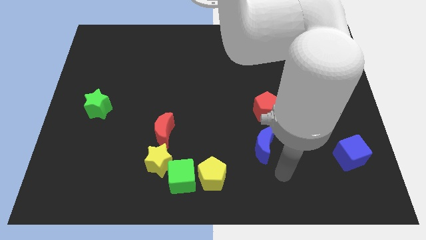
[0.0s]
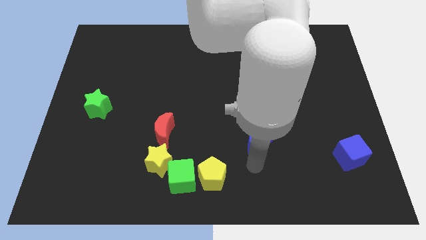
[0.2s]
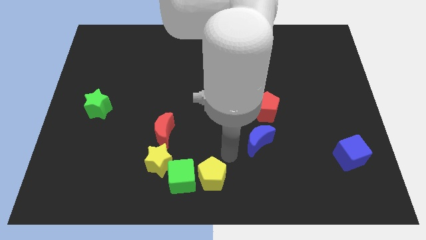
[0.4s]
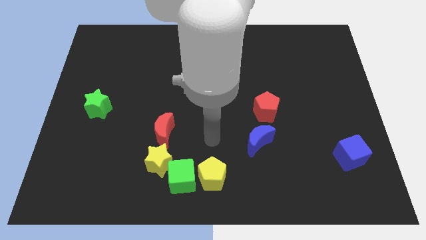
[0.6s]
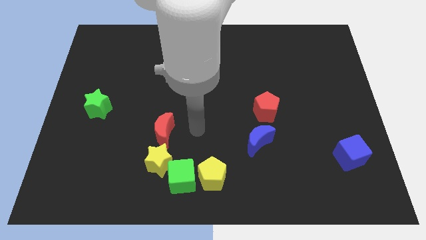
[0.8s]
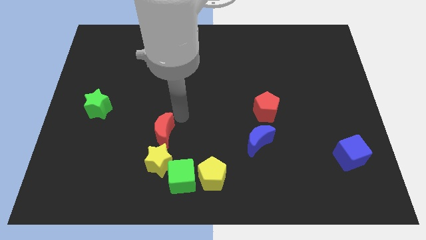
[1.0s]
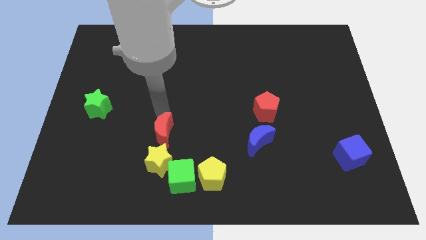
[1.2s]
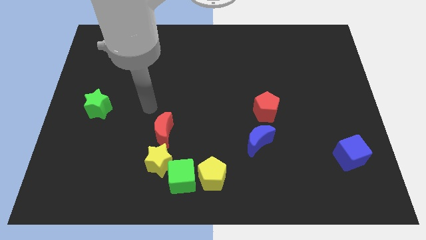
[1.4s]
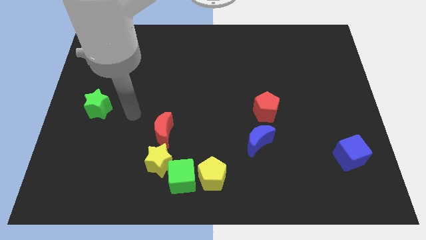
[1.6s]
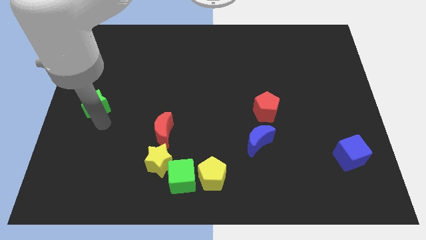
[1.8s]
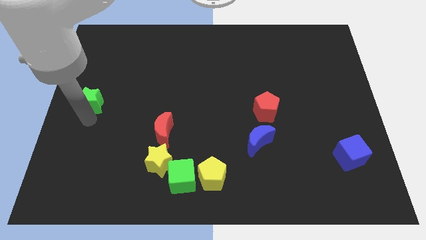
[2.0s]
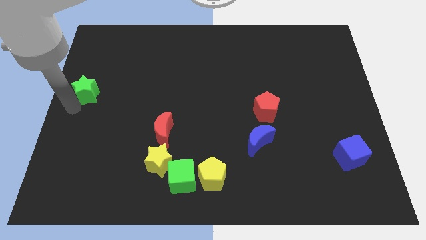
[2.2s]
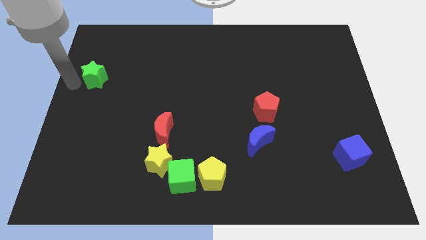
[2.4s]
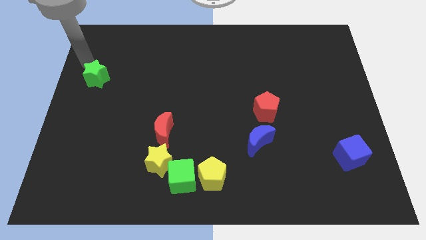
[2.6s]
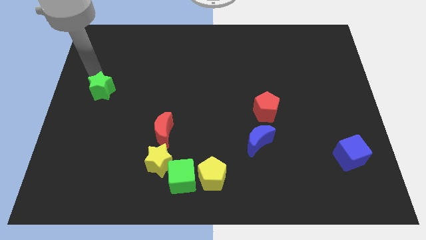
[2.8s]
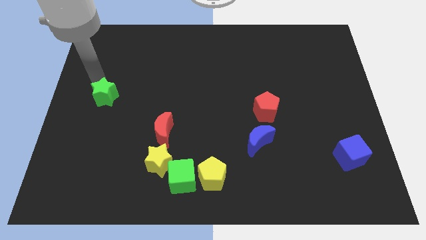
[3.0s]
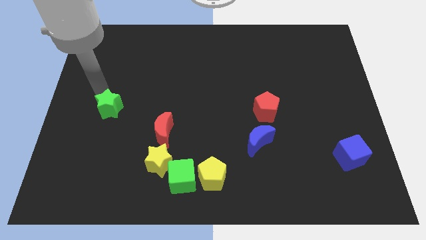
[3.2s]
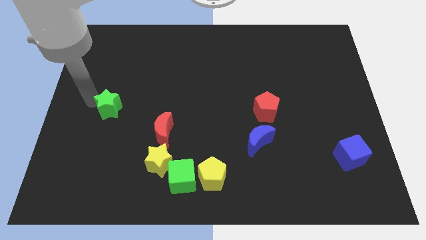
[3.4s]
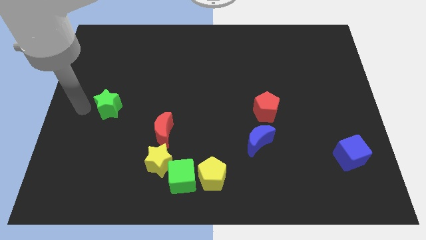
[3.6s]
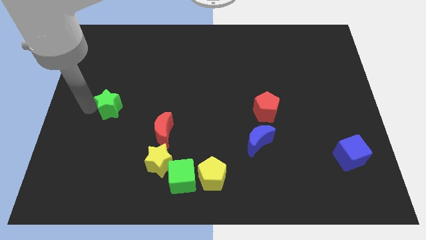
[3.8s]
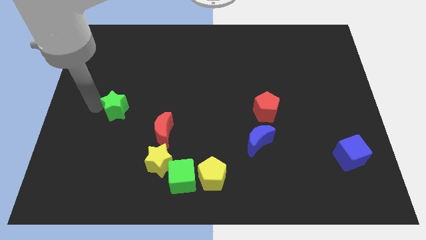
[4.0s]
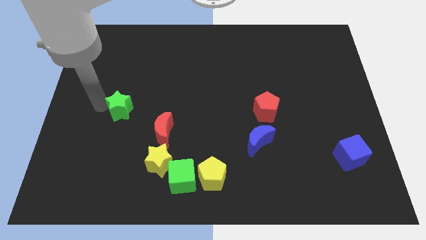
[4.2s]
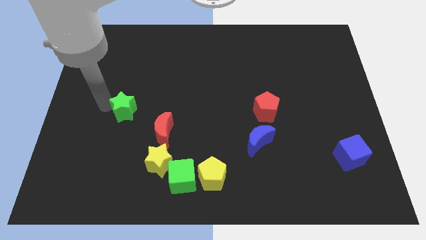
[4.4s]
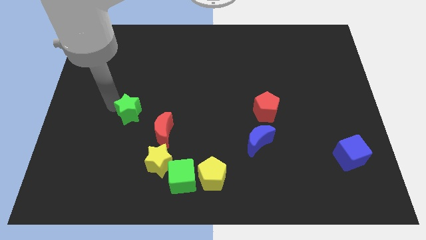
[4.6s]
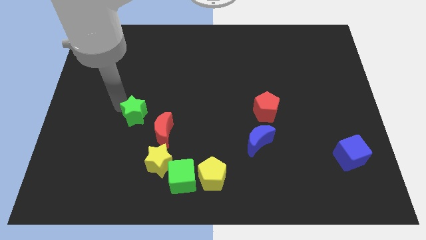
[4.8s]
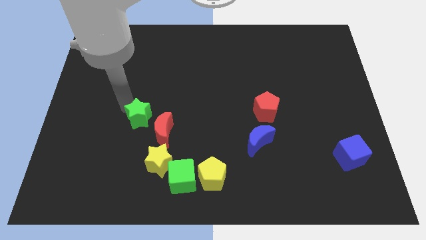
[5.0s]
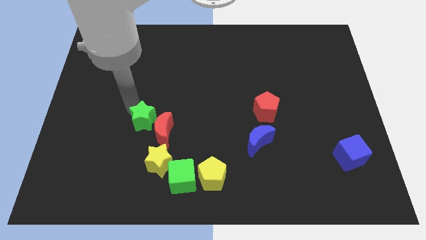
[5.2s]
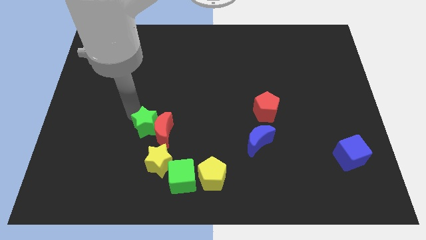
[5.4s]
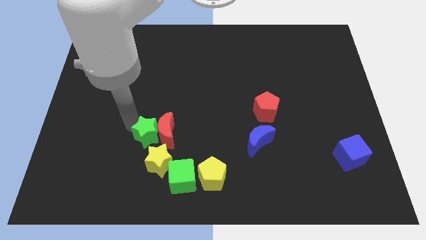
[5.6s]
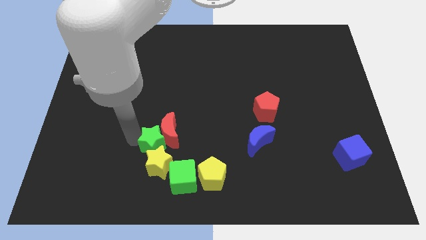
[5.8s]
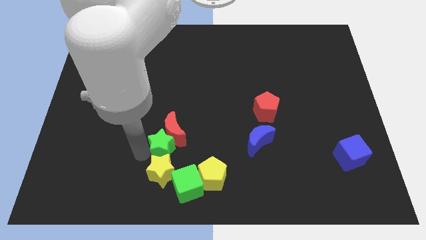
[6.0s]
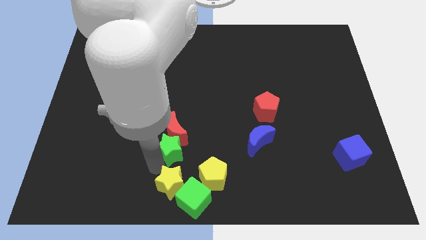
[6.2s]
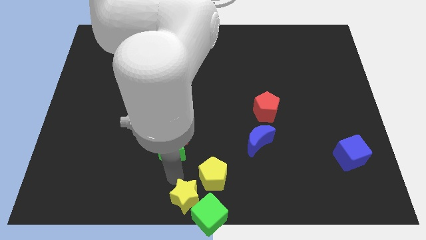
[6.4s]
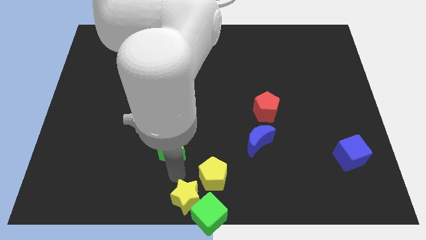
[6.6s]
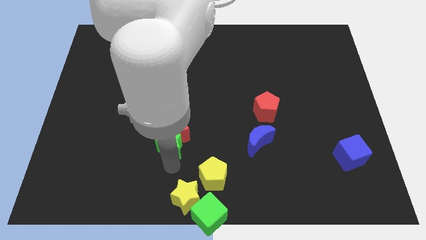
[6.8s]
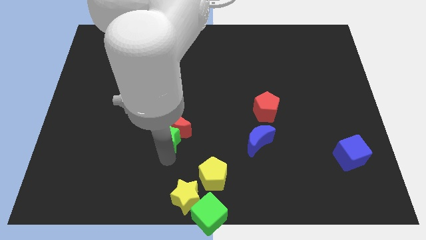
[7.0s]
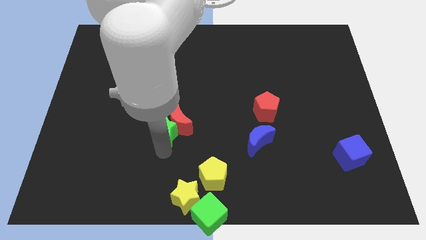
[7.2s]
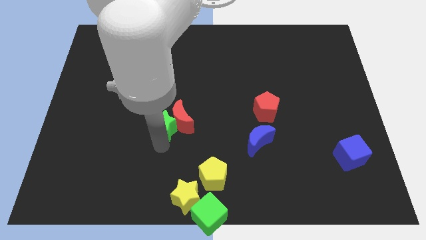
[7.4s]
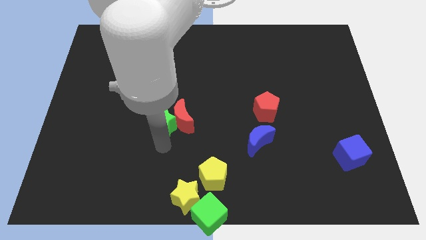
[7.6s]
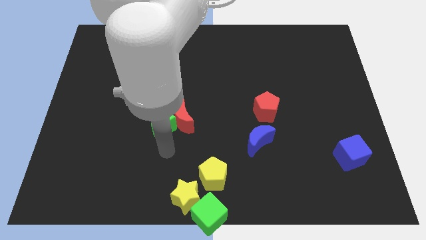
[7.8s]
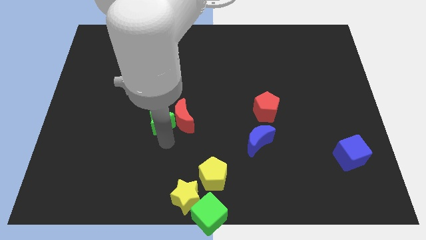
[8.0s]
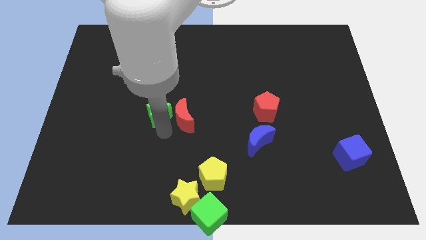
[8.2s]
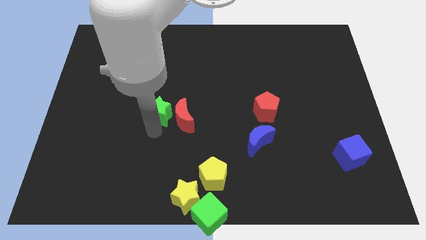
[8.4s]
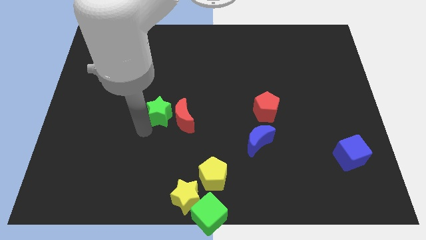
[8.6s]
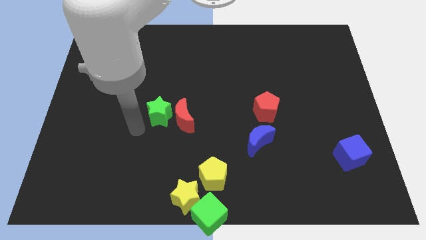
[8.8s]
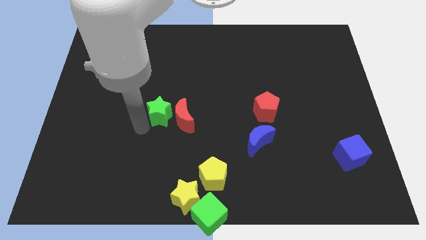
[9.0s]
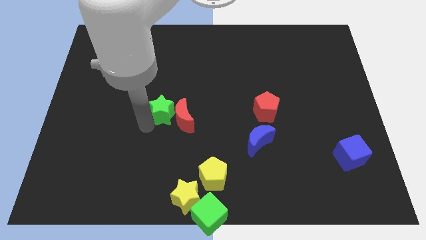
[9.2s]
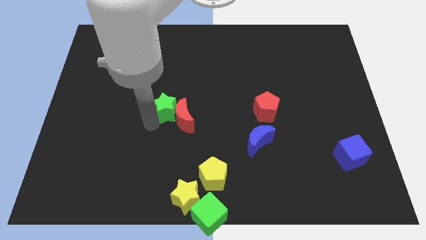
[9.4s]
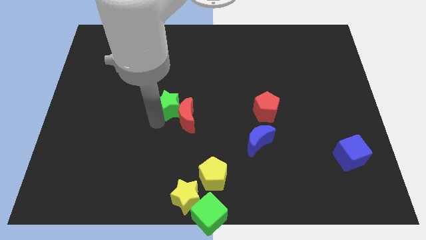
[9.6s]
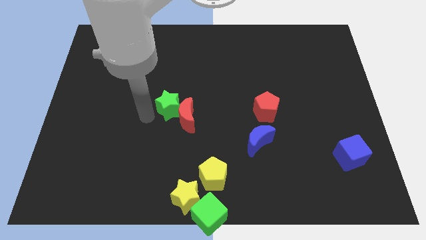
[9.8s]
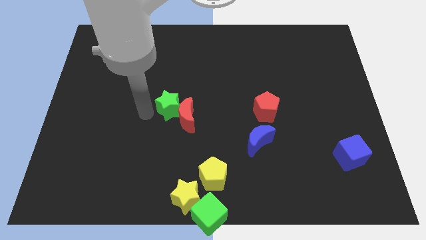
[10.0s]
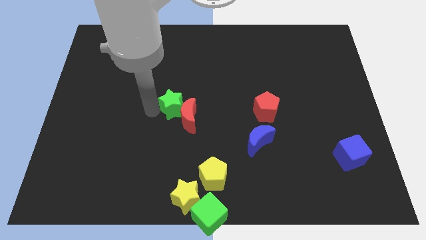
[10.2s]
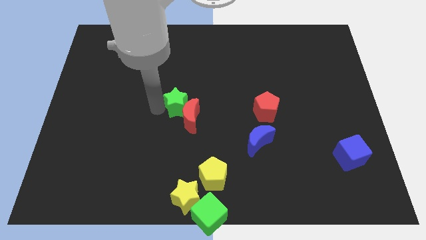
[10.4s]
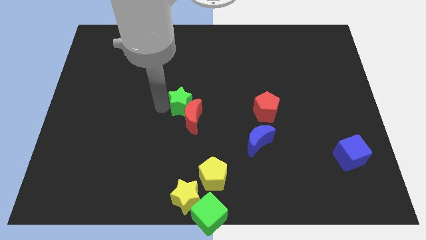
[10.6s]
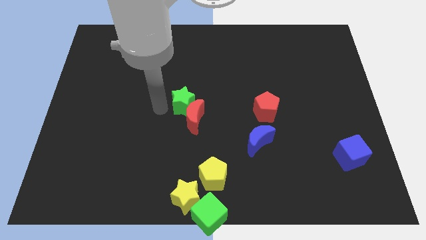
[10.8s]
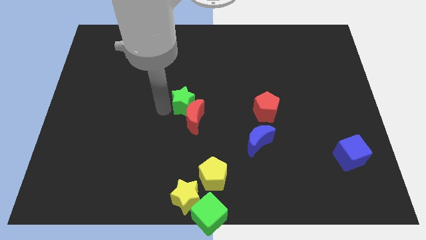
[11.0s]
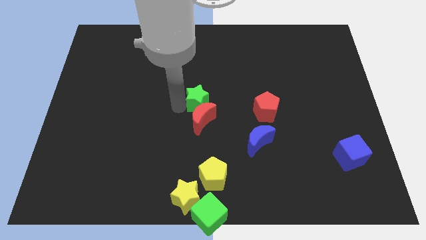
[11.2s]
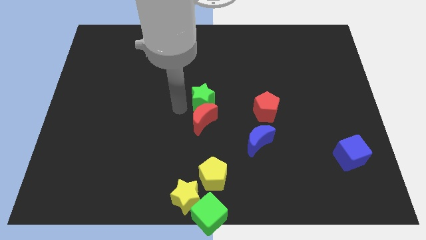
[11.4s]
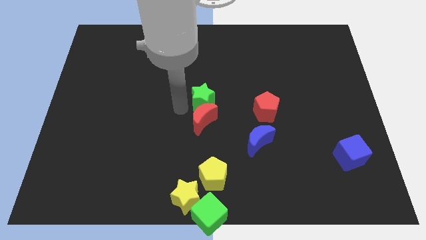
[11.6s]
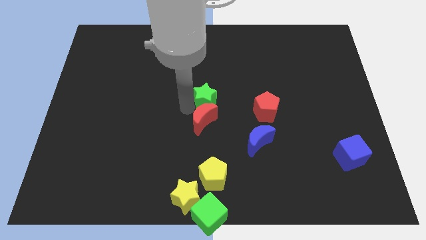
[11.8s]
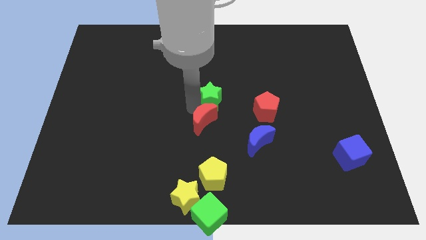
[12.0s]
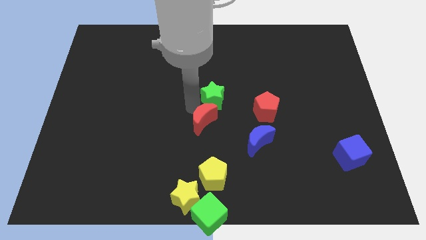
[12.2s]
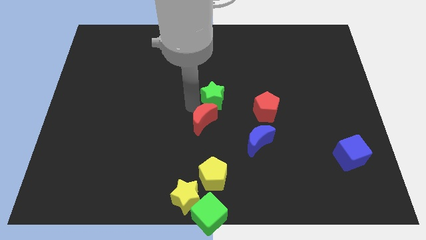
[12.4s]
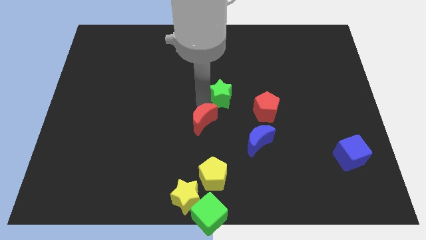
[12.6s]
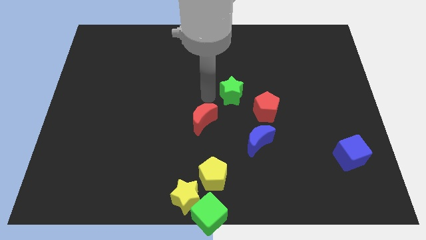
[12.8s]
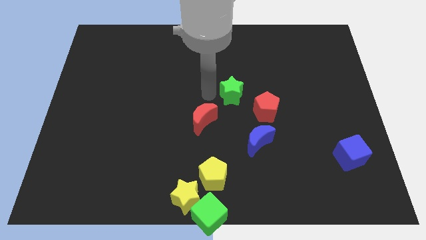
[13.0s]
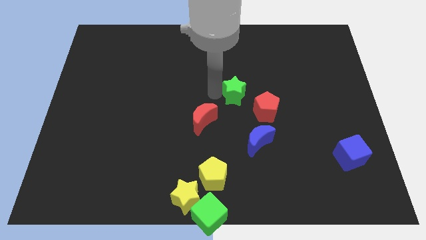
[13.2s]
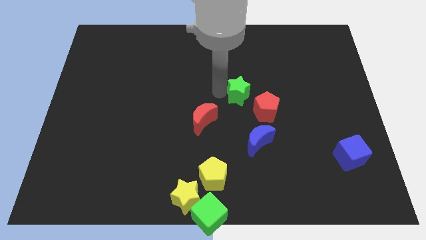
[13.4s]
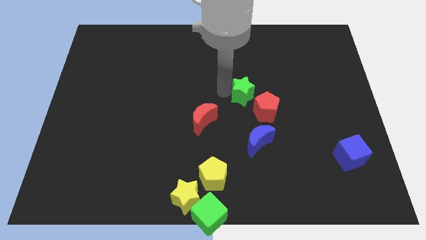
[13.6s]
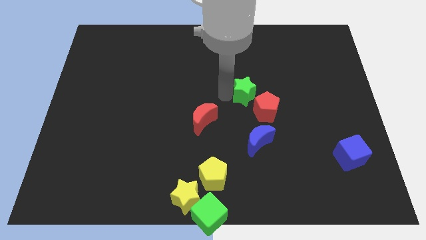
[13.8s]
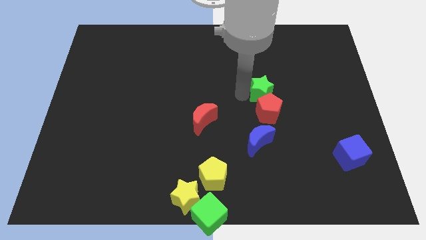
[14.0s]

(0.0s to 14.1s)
slide the green star to the top right side of the red pentagon

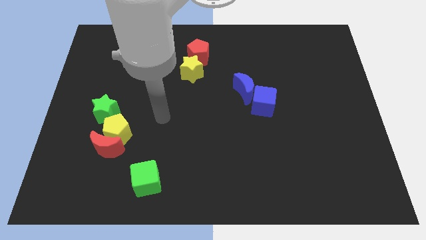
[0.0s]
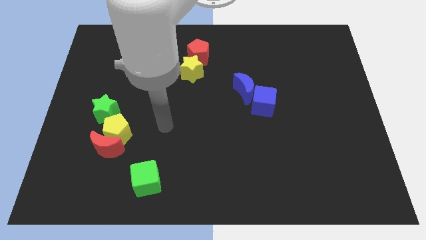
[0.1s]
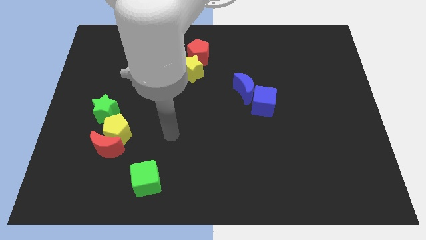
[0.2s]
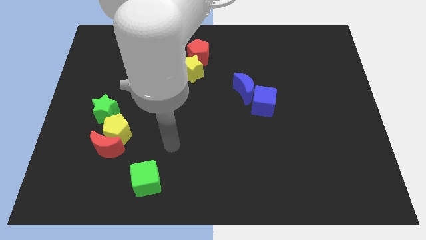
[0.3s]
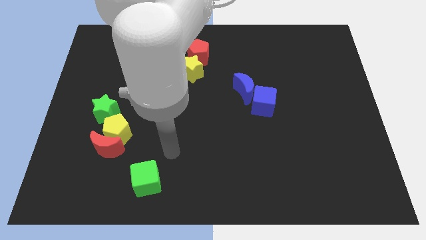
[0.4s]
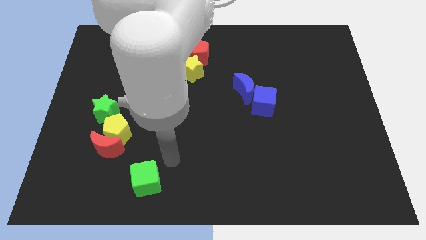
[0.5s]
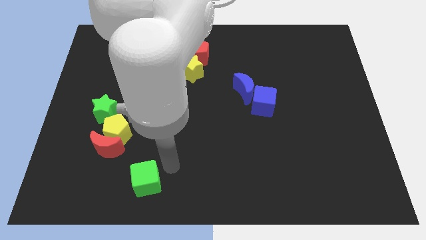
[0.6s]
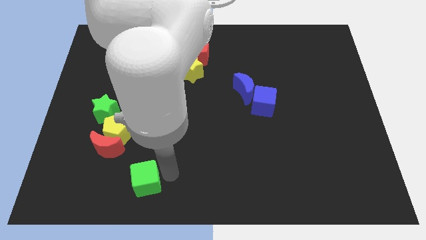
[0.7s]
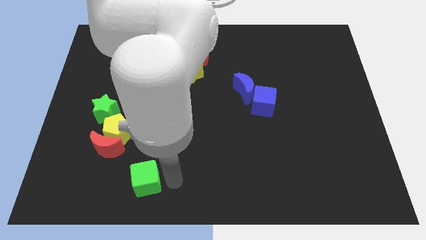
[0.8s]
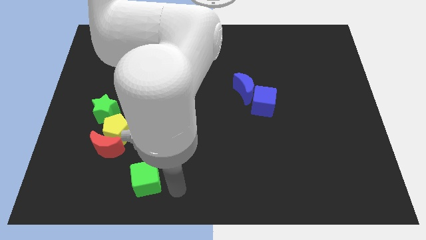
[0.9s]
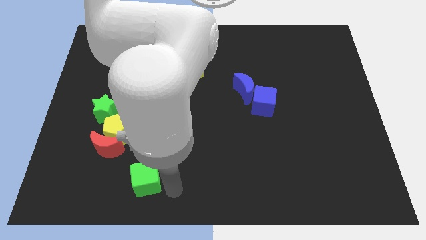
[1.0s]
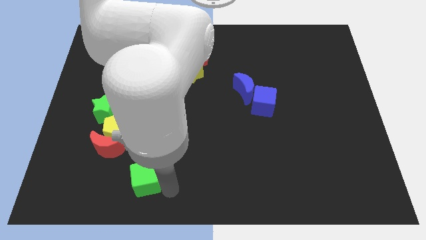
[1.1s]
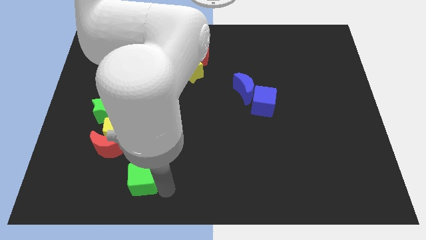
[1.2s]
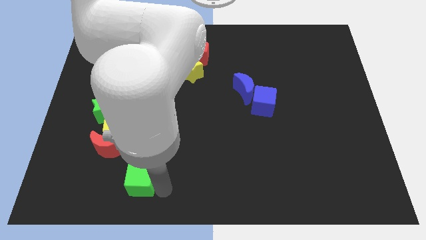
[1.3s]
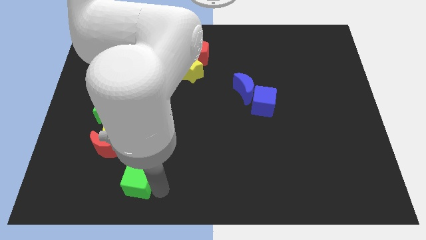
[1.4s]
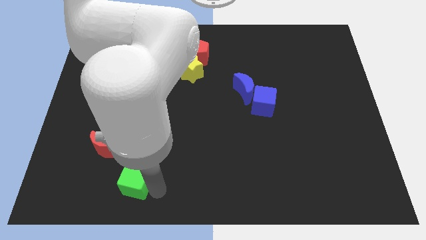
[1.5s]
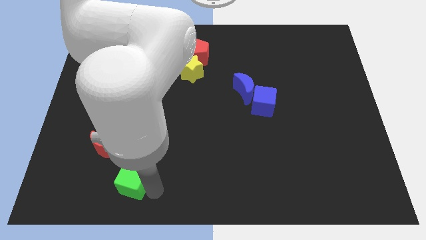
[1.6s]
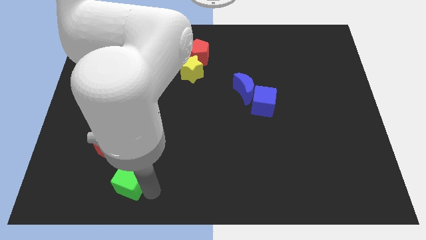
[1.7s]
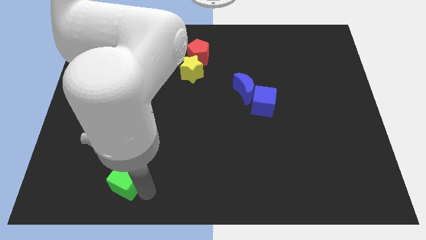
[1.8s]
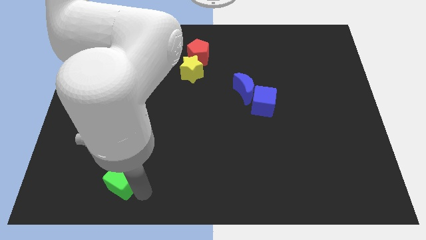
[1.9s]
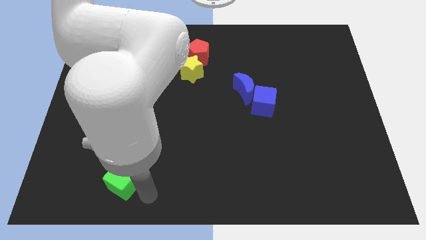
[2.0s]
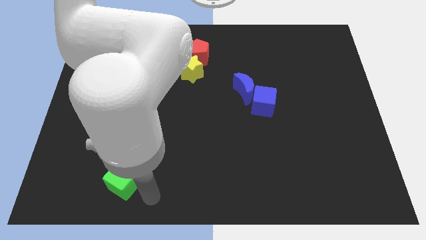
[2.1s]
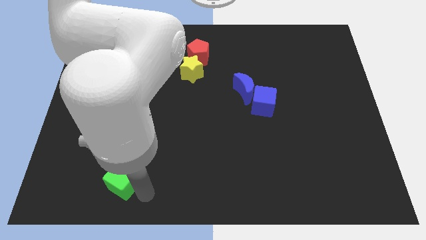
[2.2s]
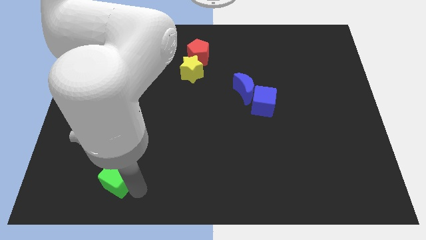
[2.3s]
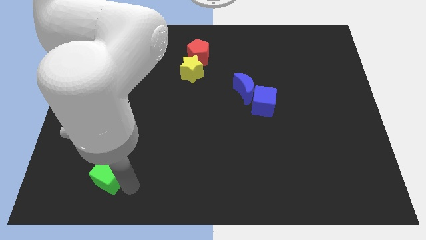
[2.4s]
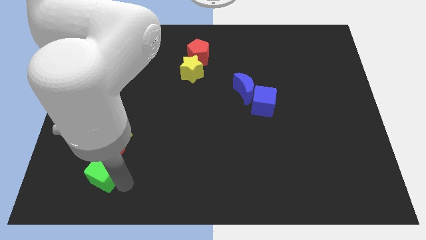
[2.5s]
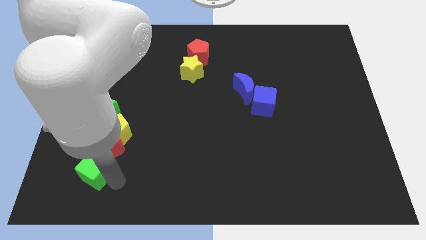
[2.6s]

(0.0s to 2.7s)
slide the green cube to the bottom left side of the yellow pentagon
